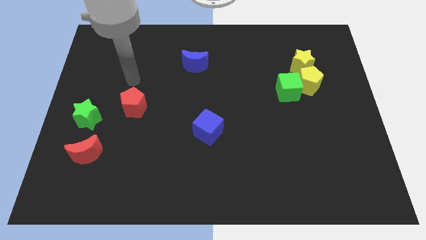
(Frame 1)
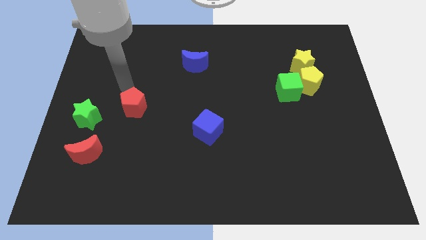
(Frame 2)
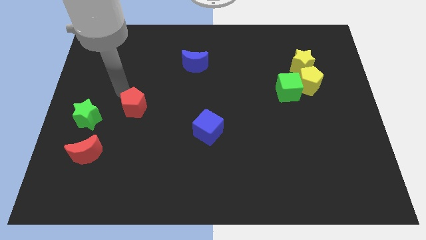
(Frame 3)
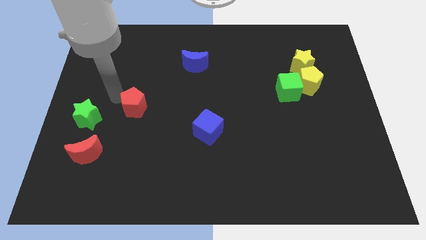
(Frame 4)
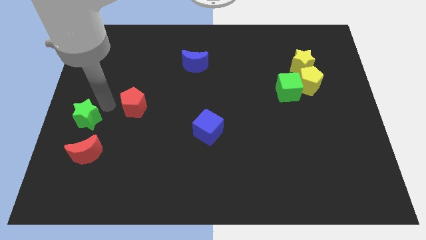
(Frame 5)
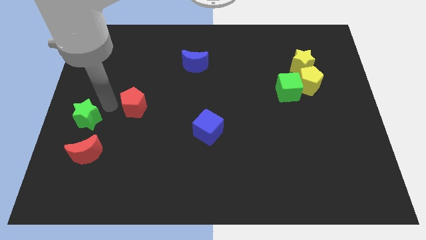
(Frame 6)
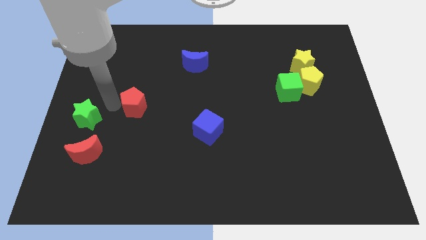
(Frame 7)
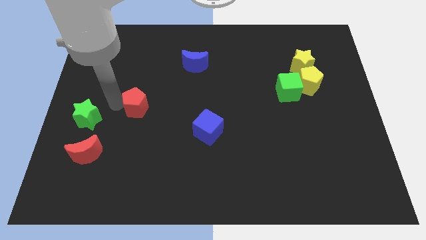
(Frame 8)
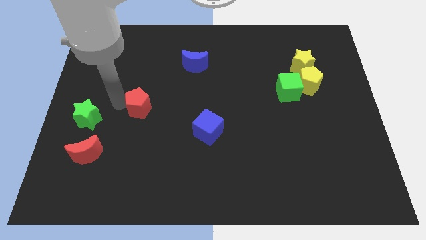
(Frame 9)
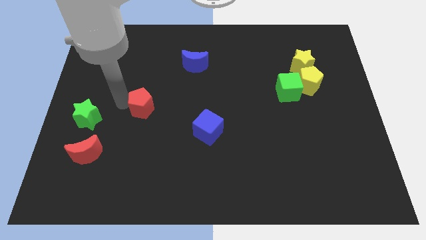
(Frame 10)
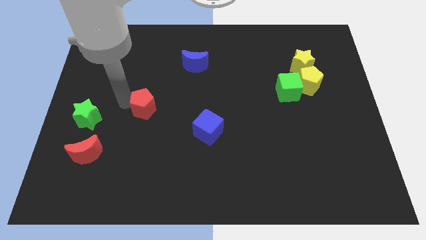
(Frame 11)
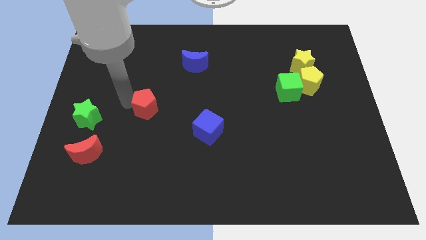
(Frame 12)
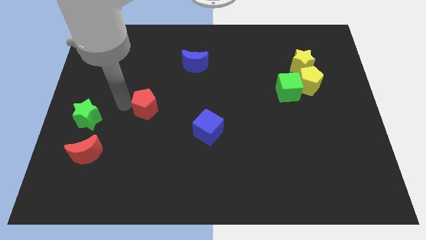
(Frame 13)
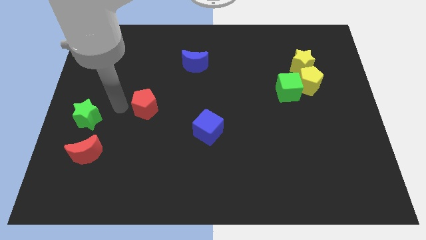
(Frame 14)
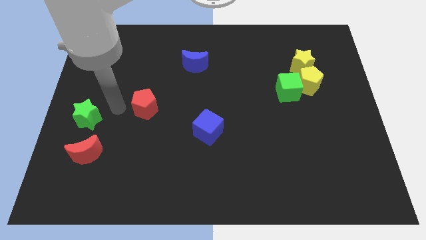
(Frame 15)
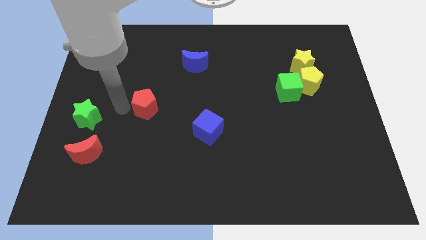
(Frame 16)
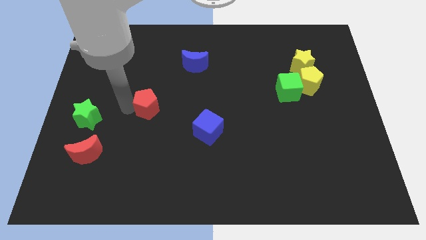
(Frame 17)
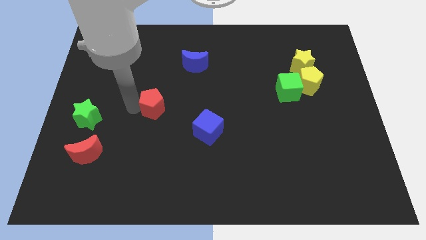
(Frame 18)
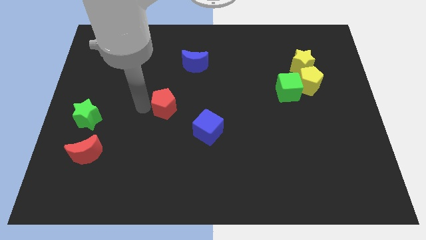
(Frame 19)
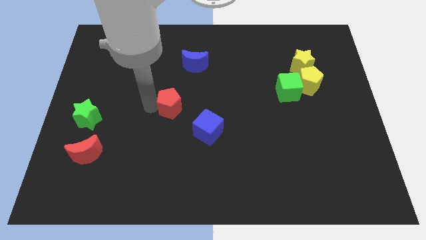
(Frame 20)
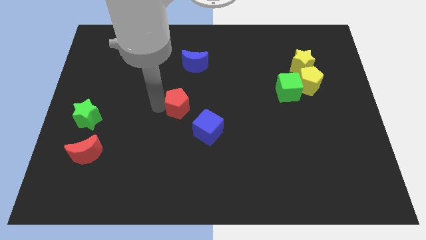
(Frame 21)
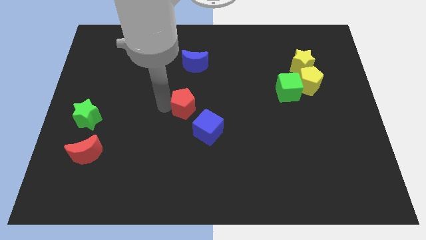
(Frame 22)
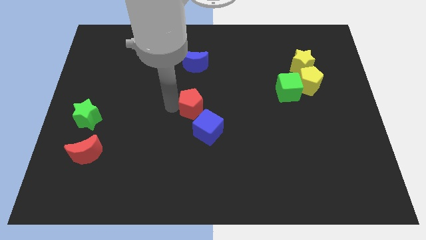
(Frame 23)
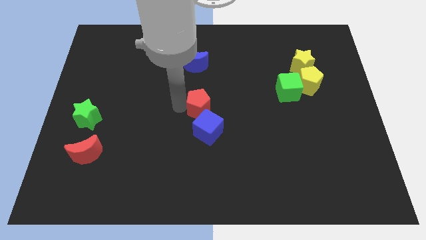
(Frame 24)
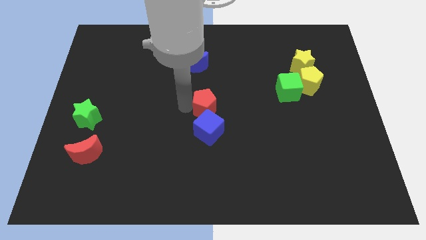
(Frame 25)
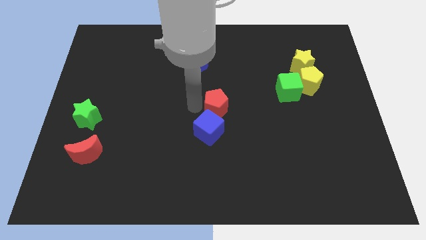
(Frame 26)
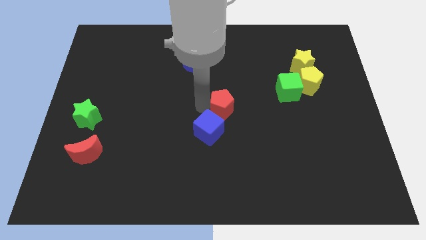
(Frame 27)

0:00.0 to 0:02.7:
move the red pentagon to the right

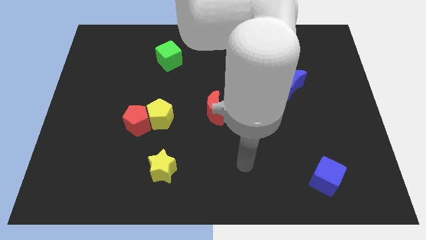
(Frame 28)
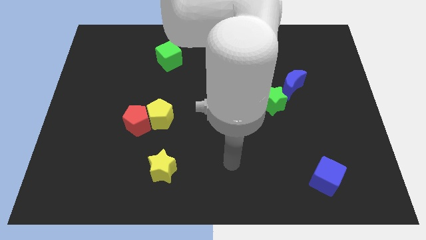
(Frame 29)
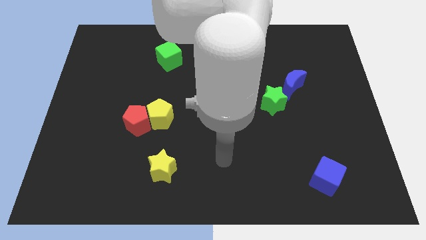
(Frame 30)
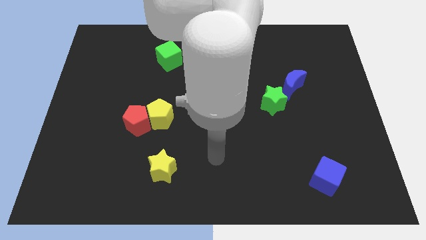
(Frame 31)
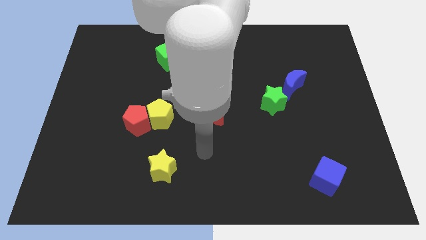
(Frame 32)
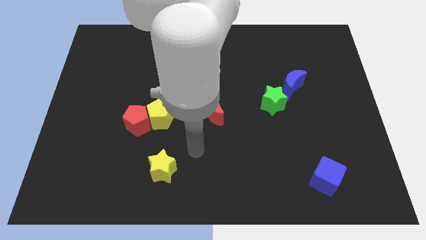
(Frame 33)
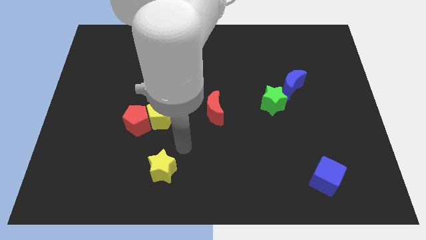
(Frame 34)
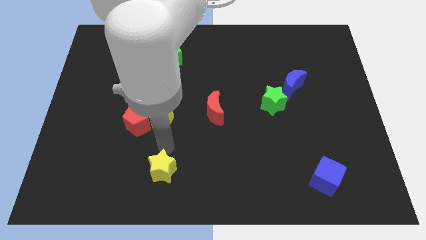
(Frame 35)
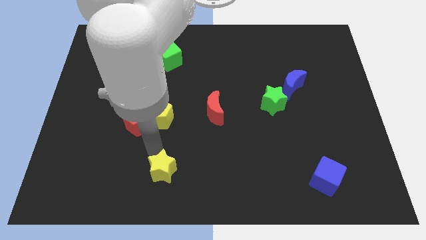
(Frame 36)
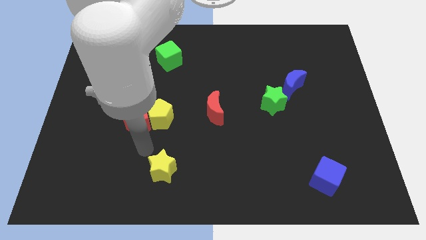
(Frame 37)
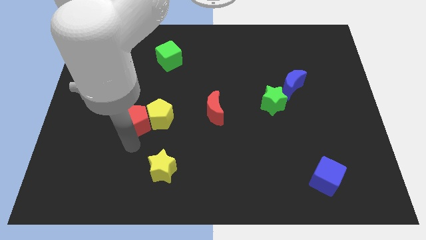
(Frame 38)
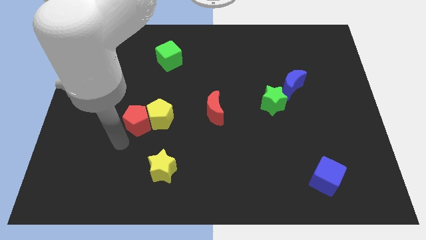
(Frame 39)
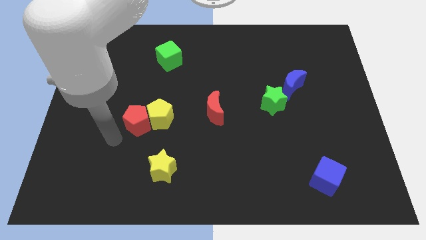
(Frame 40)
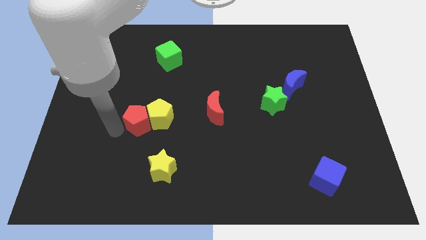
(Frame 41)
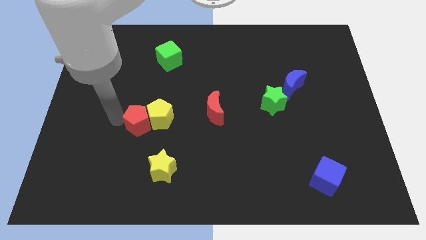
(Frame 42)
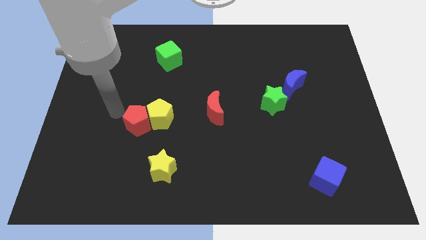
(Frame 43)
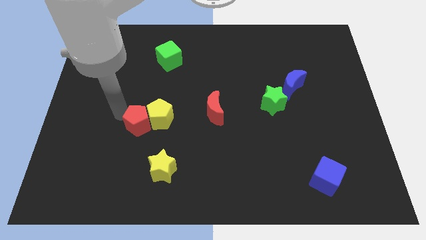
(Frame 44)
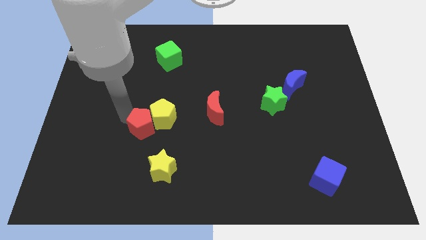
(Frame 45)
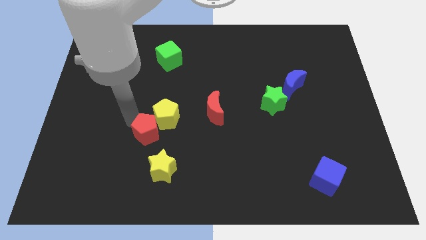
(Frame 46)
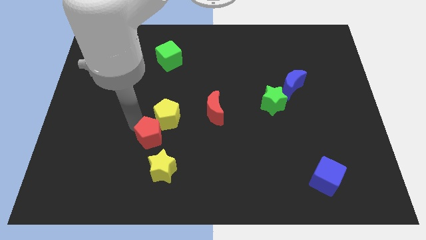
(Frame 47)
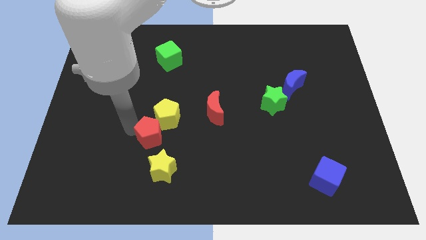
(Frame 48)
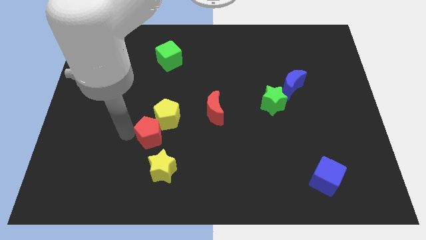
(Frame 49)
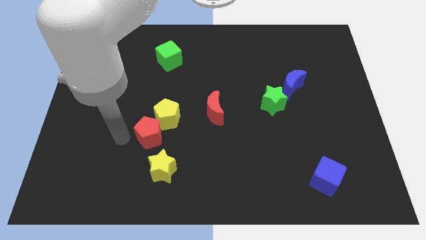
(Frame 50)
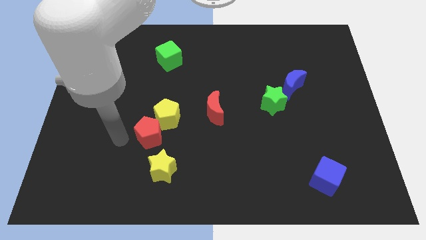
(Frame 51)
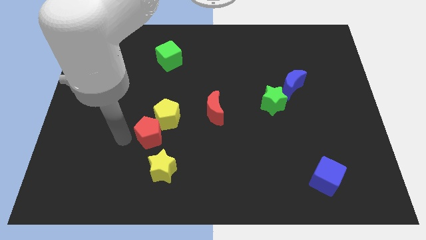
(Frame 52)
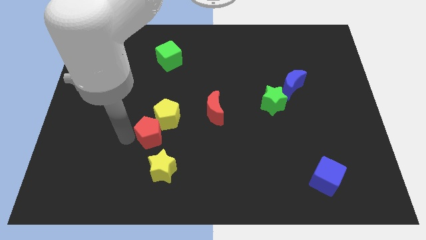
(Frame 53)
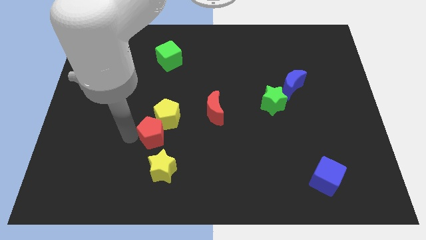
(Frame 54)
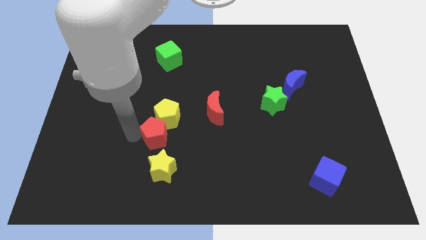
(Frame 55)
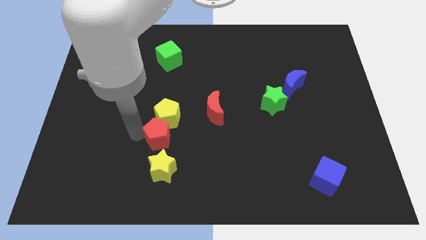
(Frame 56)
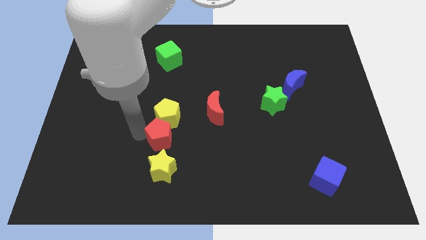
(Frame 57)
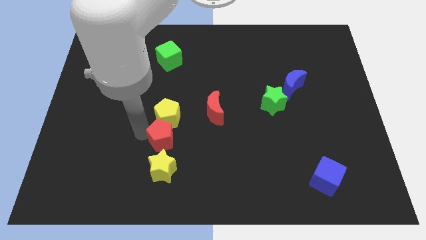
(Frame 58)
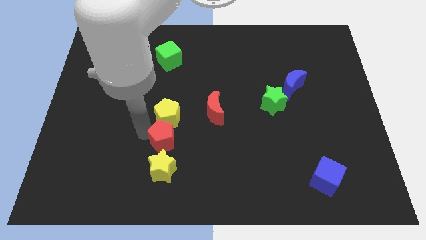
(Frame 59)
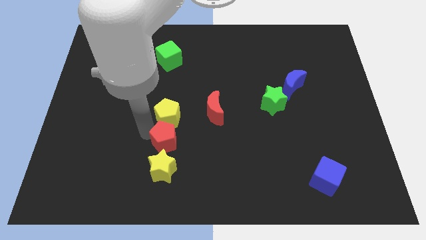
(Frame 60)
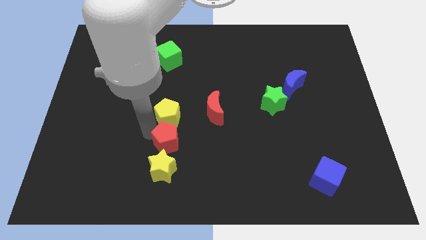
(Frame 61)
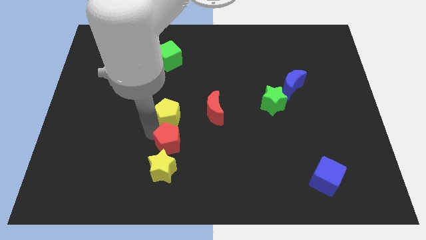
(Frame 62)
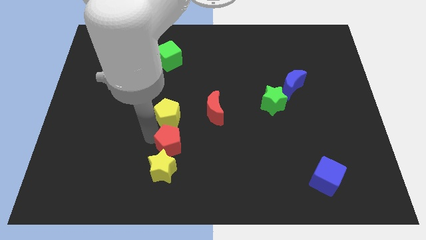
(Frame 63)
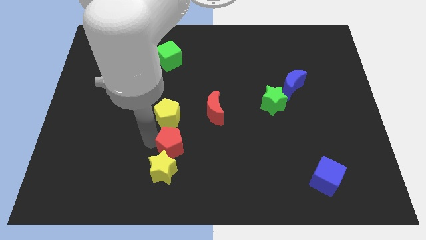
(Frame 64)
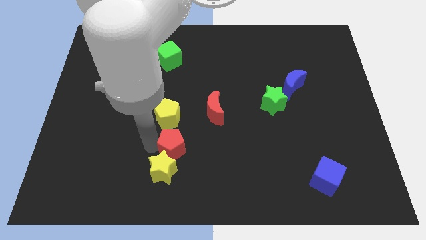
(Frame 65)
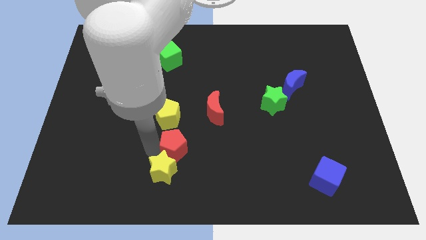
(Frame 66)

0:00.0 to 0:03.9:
move the red pentagon a little bit to the right

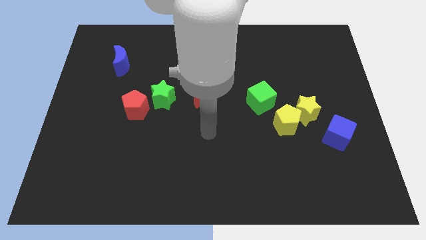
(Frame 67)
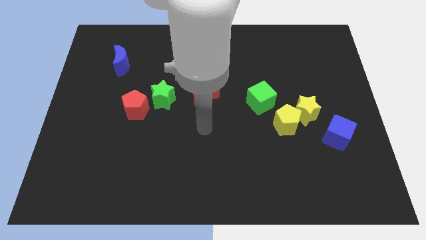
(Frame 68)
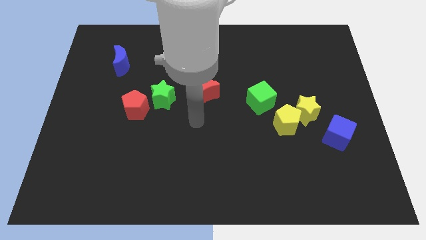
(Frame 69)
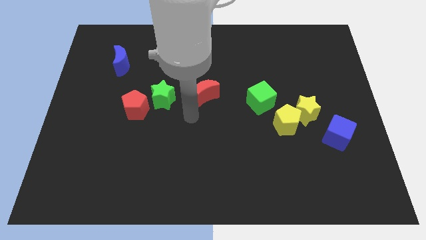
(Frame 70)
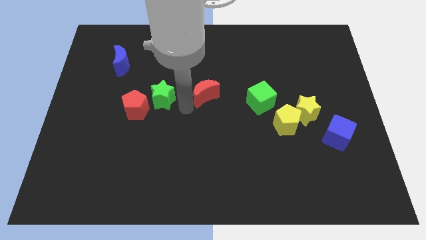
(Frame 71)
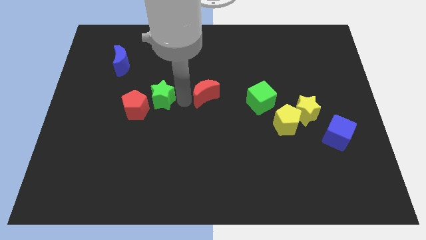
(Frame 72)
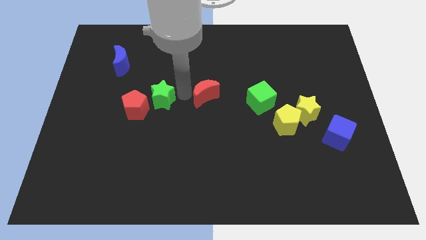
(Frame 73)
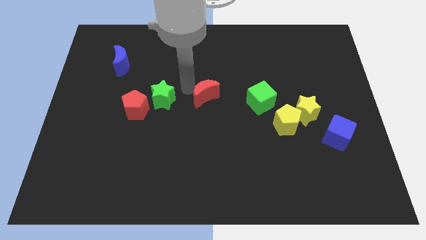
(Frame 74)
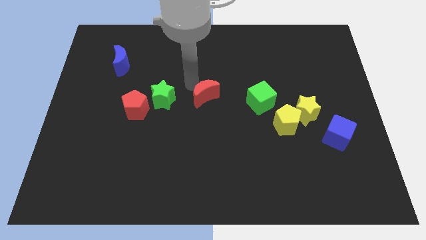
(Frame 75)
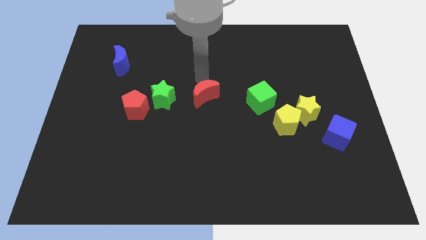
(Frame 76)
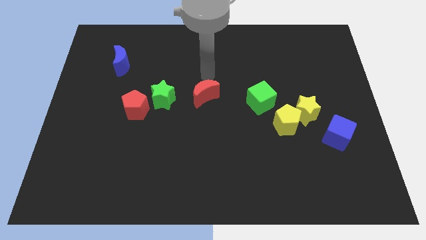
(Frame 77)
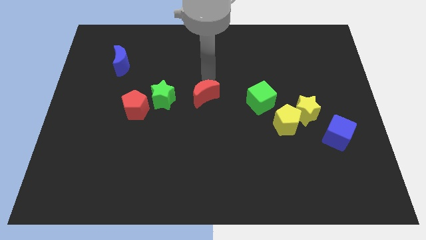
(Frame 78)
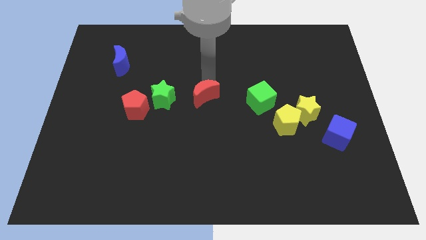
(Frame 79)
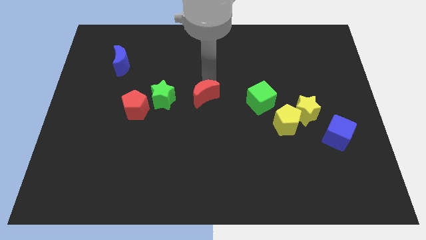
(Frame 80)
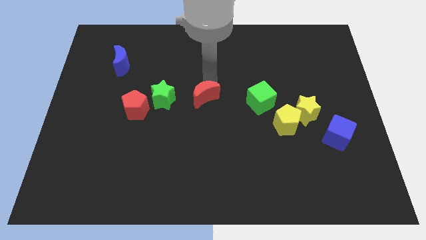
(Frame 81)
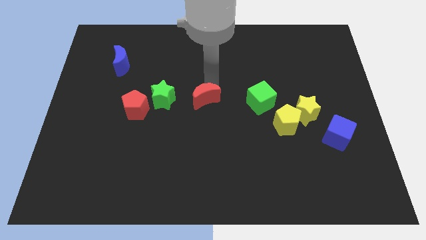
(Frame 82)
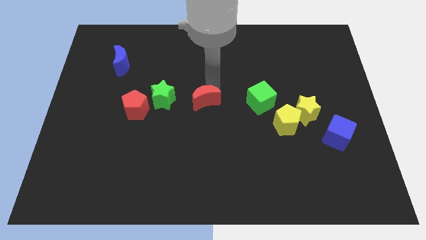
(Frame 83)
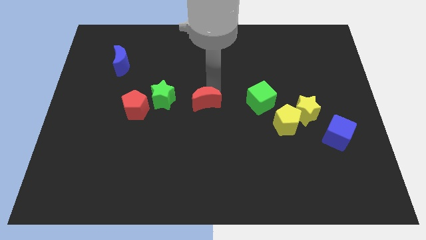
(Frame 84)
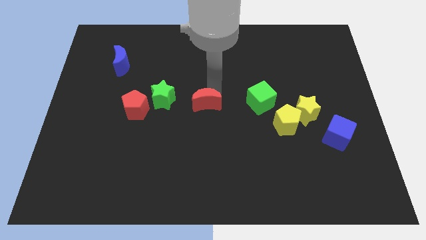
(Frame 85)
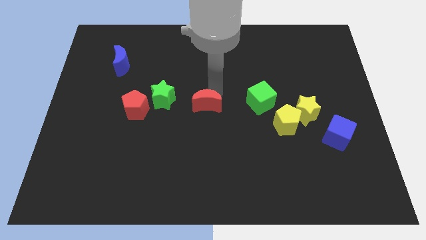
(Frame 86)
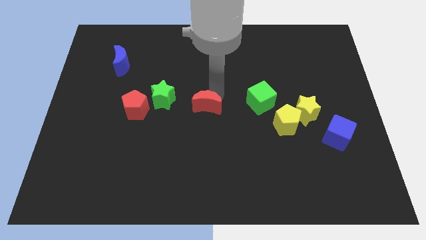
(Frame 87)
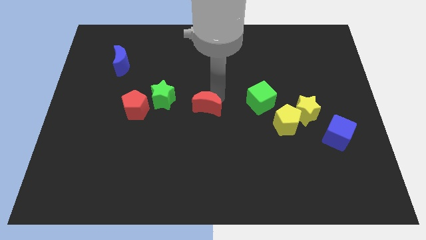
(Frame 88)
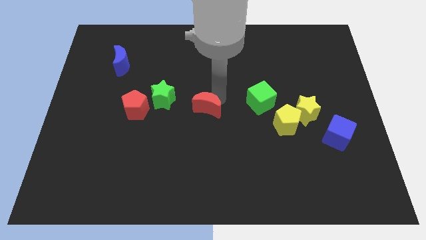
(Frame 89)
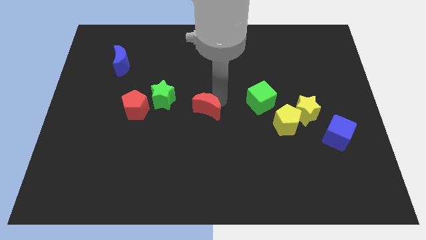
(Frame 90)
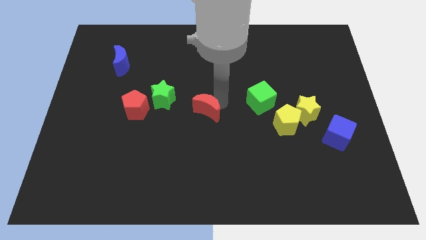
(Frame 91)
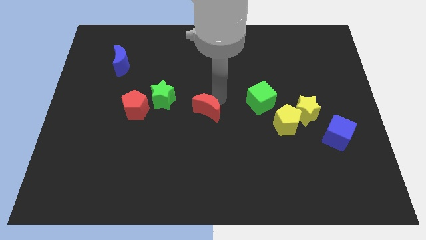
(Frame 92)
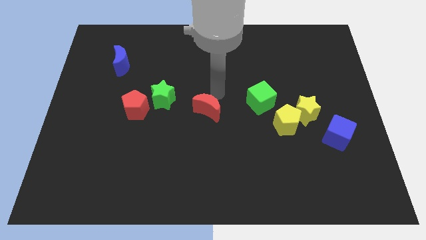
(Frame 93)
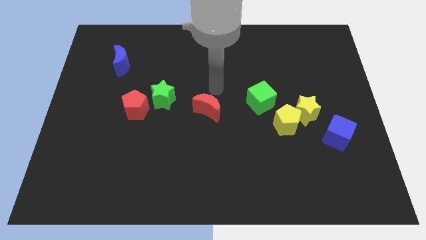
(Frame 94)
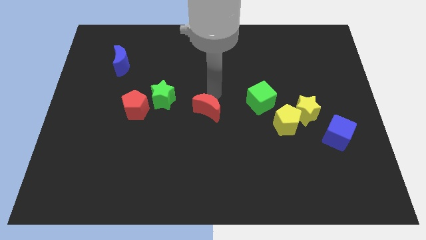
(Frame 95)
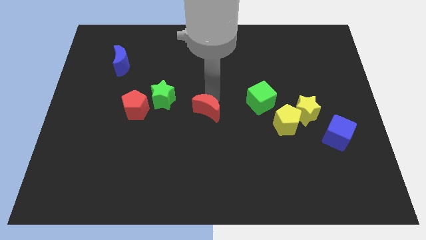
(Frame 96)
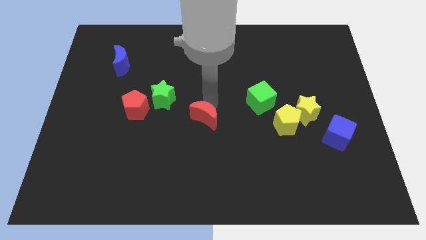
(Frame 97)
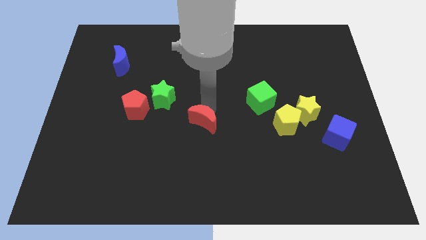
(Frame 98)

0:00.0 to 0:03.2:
slightly slide the red moon downwards
